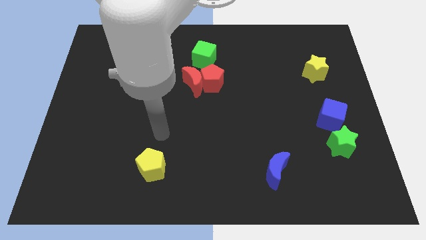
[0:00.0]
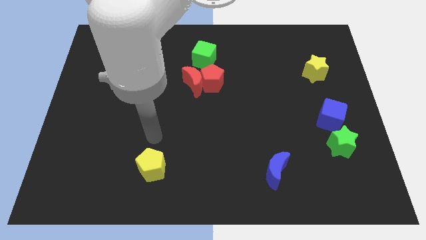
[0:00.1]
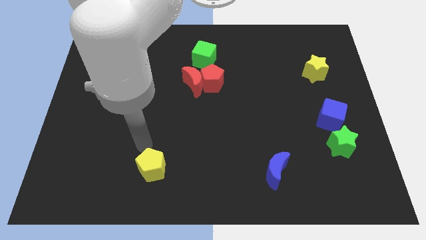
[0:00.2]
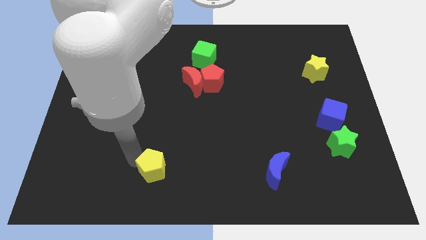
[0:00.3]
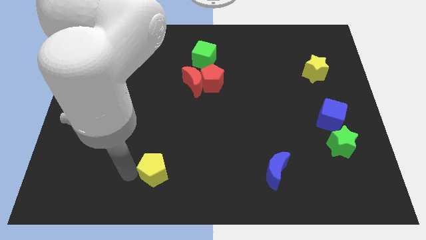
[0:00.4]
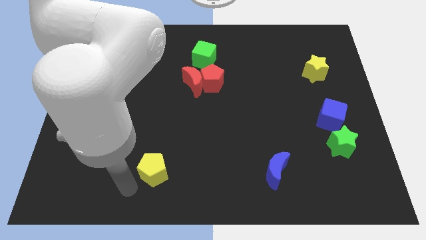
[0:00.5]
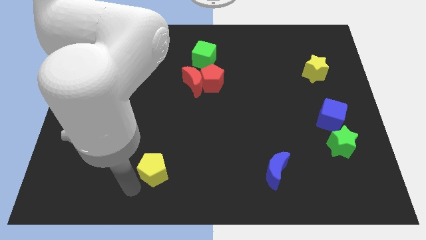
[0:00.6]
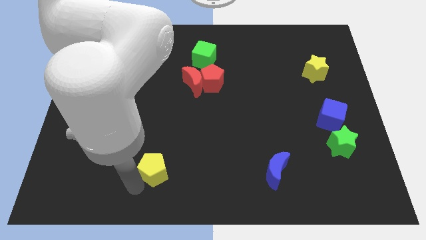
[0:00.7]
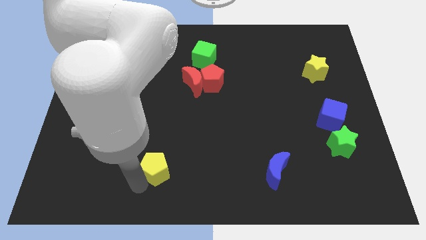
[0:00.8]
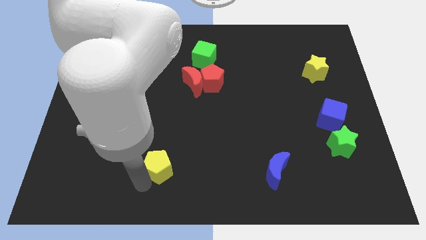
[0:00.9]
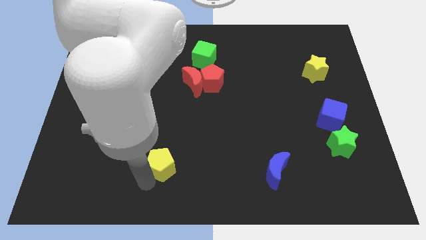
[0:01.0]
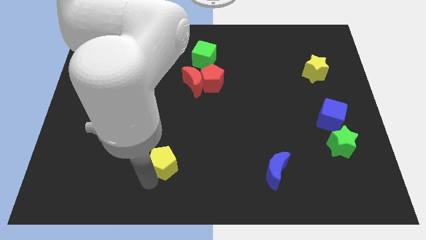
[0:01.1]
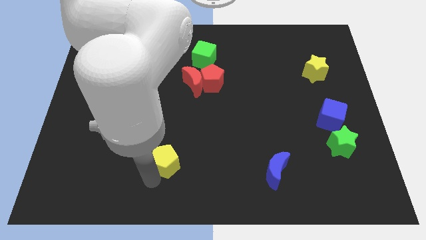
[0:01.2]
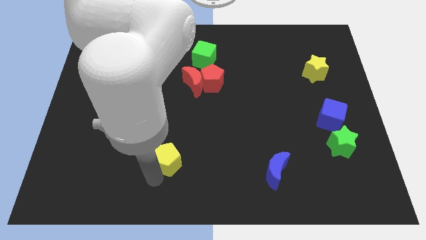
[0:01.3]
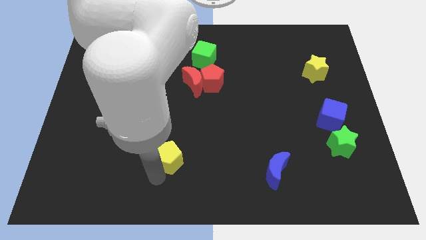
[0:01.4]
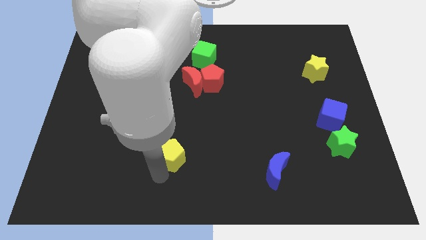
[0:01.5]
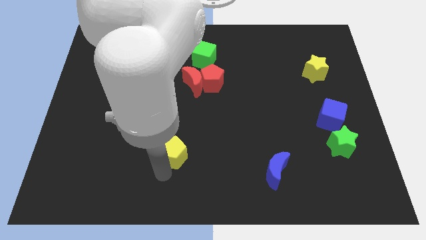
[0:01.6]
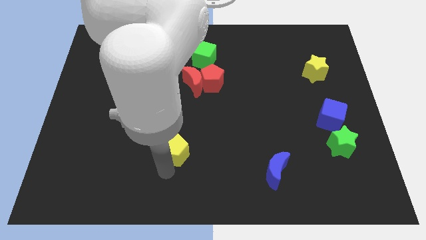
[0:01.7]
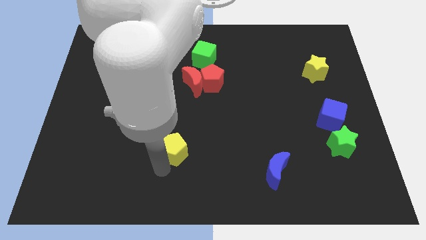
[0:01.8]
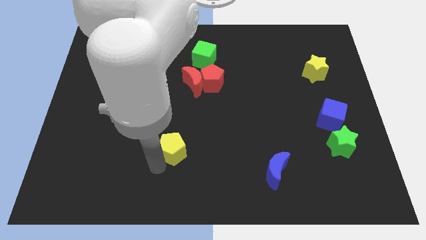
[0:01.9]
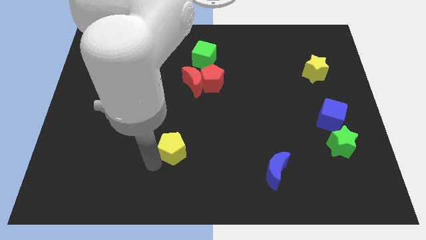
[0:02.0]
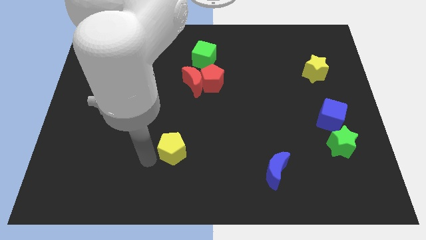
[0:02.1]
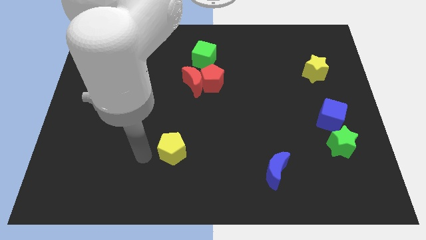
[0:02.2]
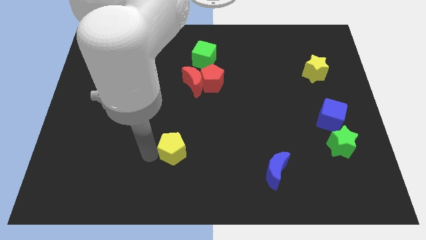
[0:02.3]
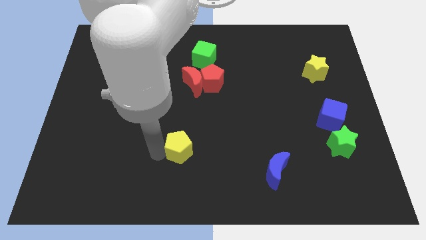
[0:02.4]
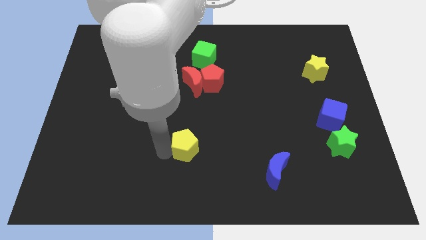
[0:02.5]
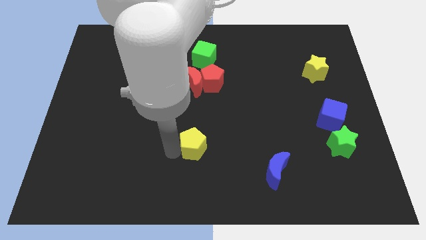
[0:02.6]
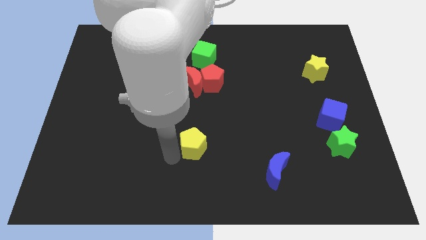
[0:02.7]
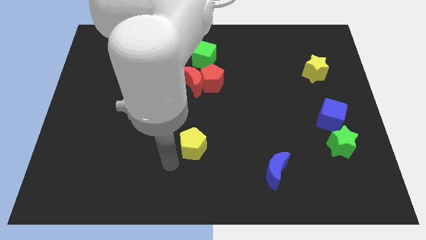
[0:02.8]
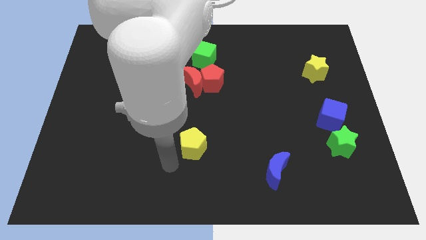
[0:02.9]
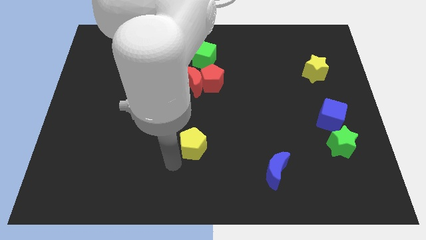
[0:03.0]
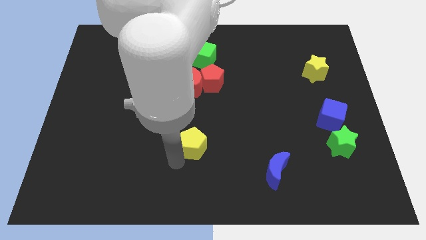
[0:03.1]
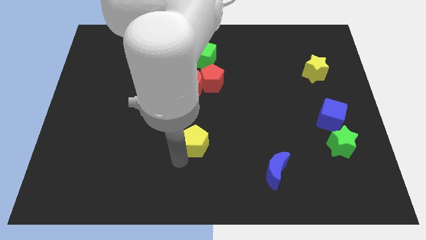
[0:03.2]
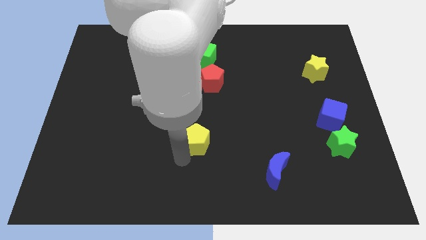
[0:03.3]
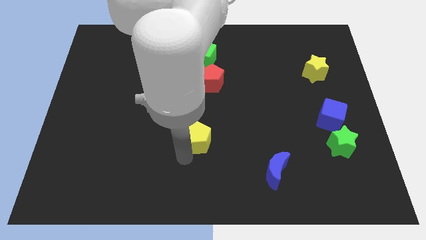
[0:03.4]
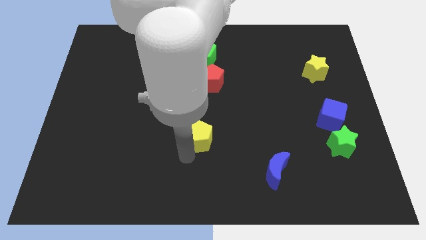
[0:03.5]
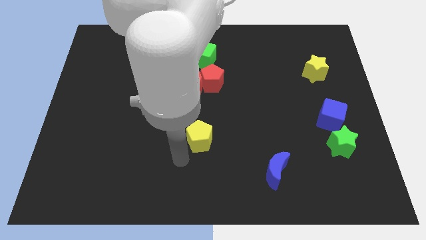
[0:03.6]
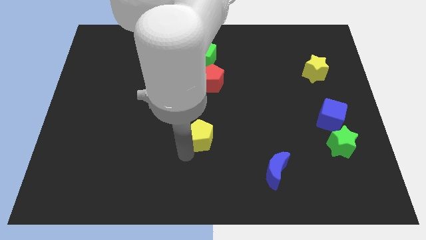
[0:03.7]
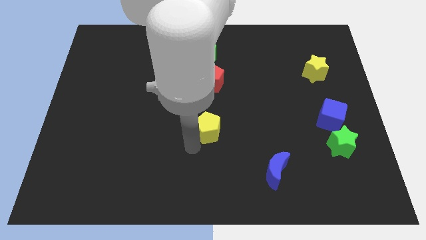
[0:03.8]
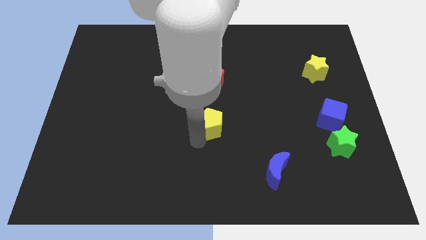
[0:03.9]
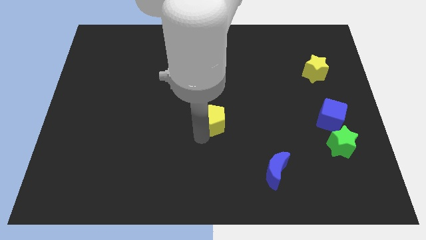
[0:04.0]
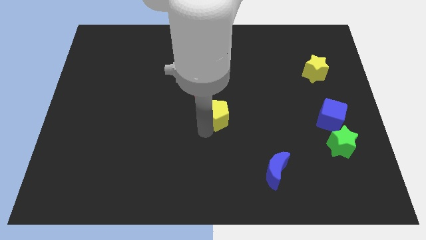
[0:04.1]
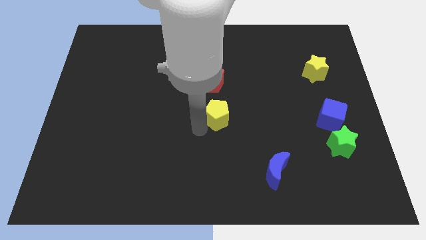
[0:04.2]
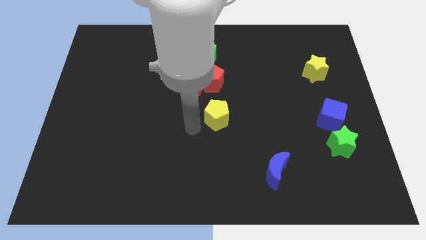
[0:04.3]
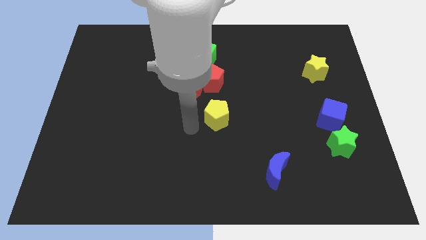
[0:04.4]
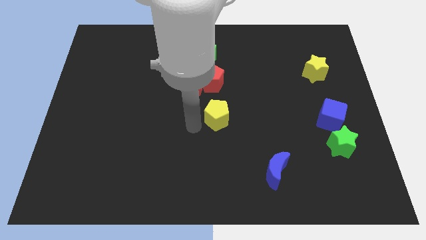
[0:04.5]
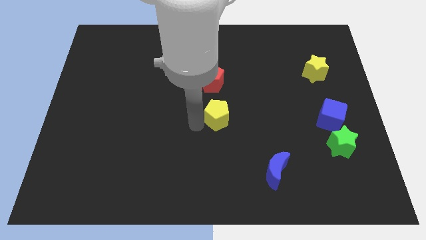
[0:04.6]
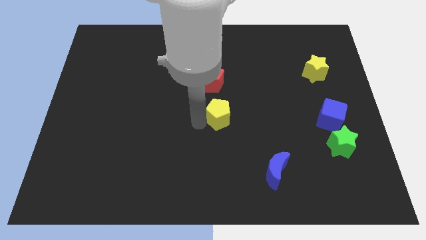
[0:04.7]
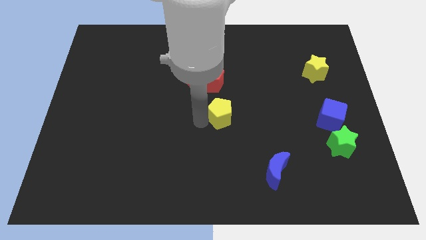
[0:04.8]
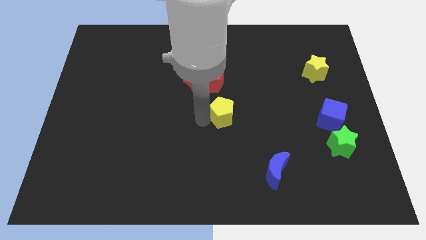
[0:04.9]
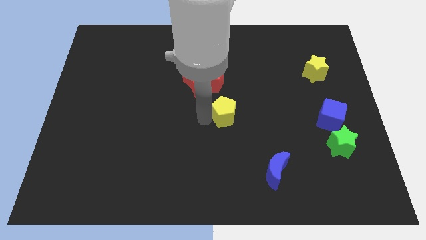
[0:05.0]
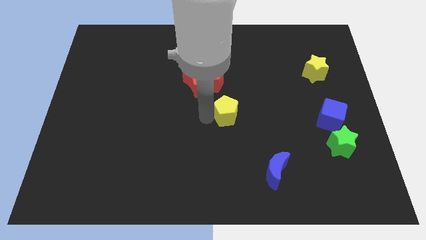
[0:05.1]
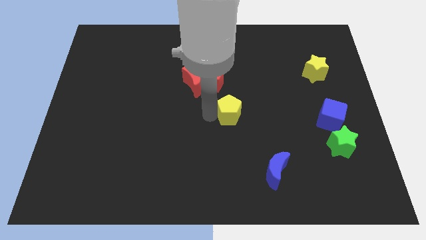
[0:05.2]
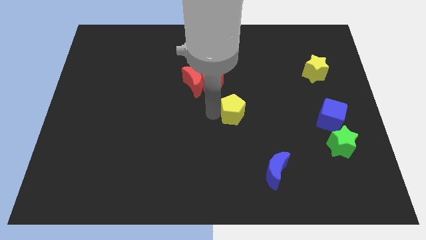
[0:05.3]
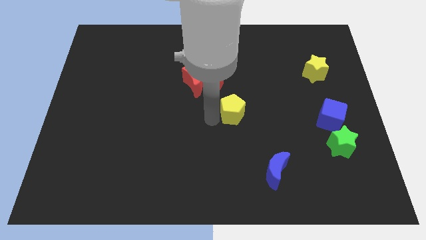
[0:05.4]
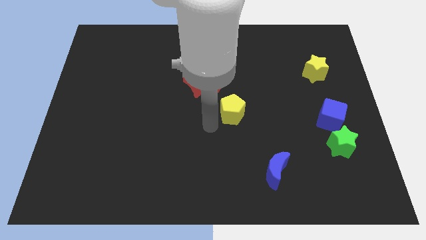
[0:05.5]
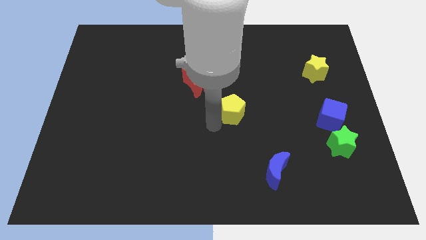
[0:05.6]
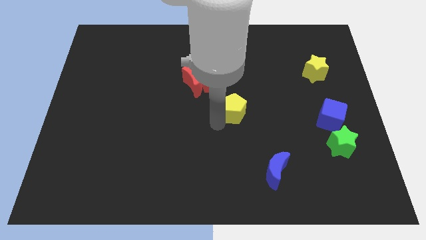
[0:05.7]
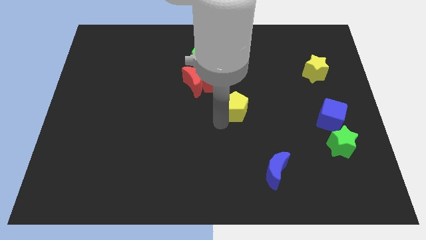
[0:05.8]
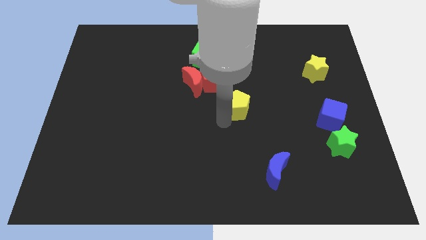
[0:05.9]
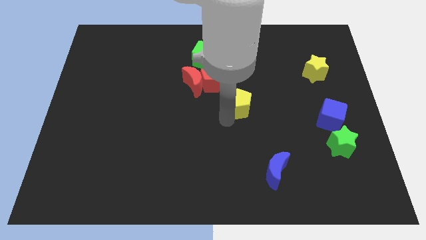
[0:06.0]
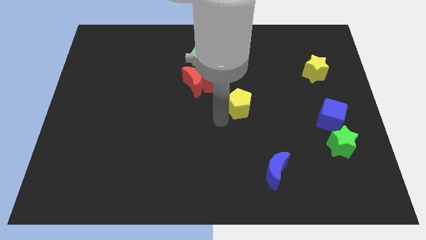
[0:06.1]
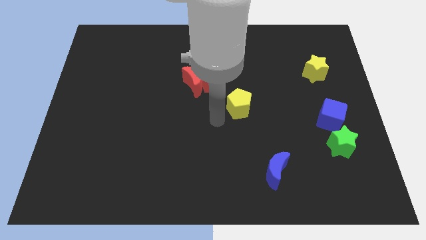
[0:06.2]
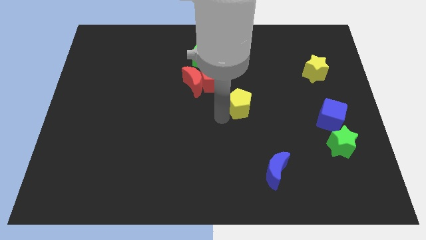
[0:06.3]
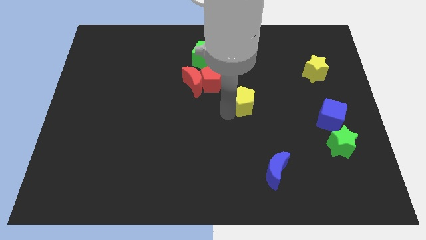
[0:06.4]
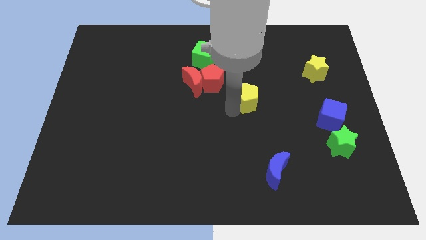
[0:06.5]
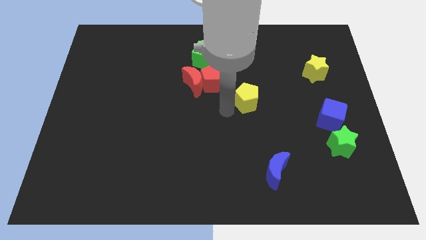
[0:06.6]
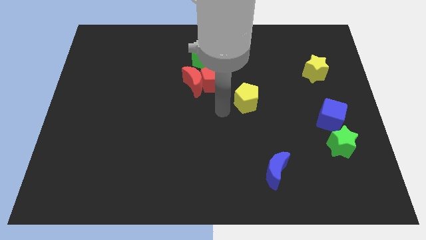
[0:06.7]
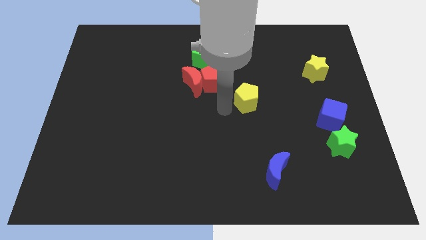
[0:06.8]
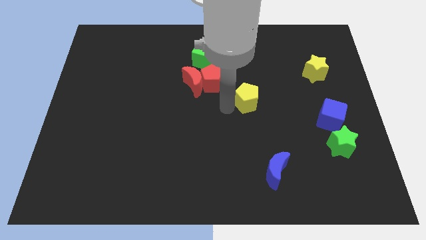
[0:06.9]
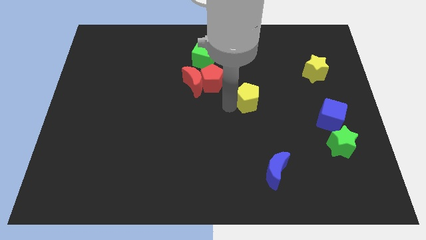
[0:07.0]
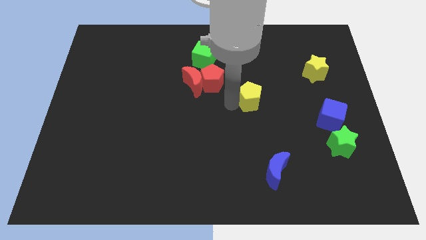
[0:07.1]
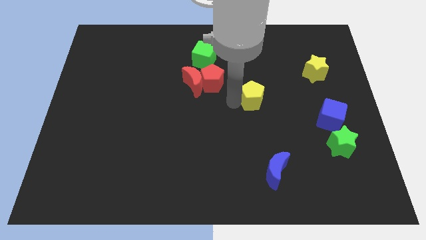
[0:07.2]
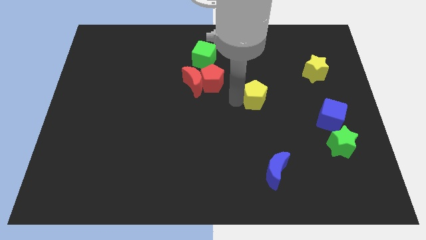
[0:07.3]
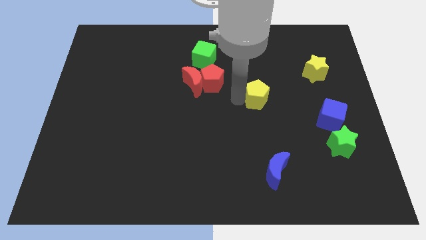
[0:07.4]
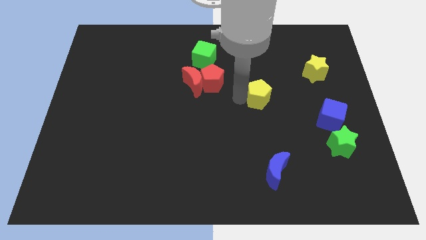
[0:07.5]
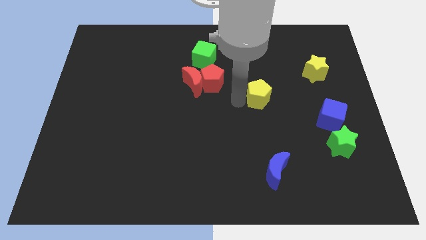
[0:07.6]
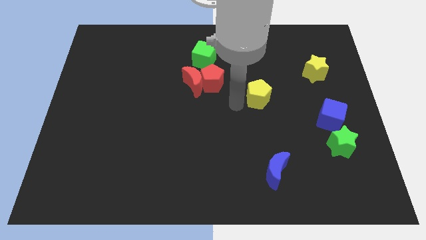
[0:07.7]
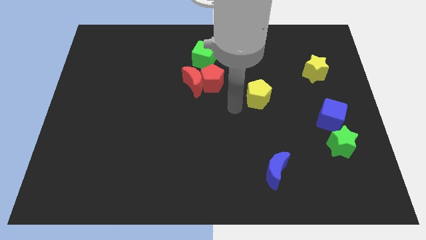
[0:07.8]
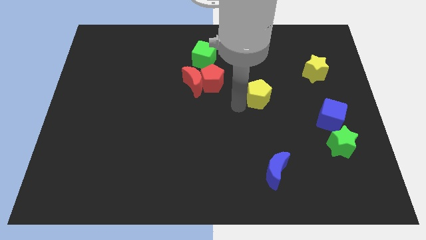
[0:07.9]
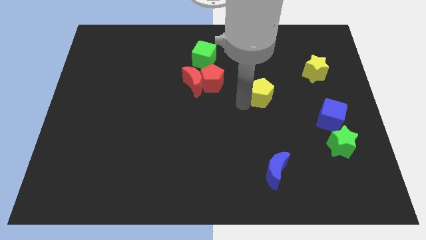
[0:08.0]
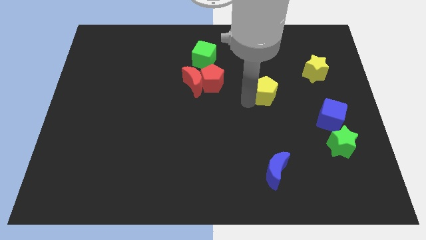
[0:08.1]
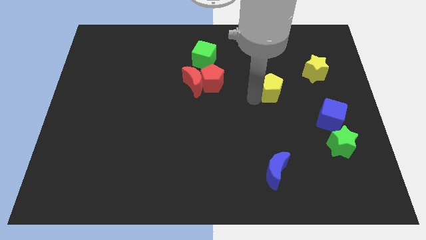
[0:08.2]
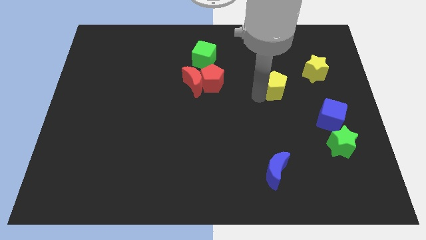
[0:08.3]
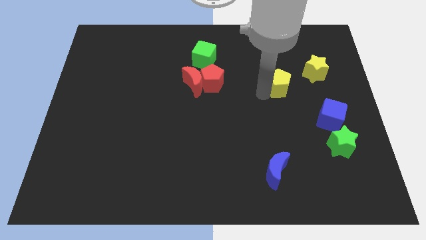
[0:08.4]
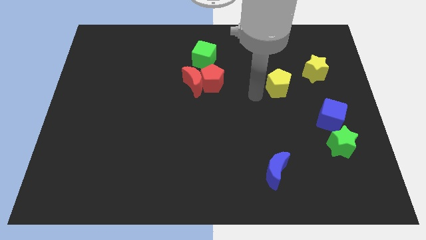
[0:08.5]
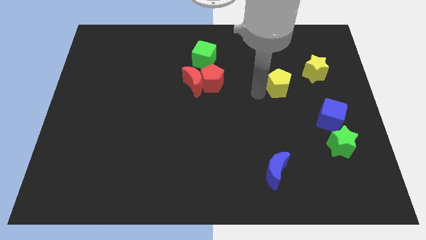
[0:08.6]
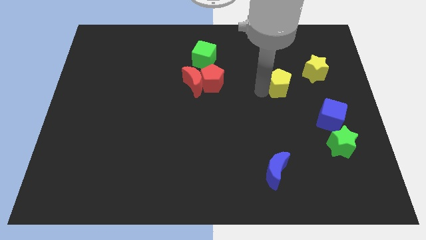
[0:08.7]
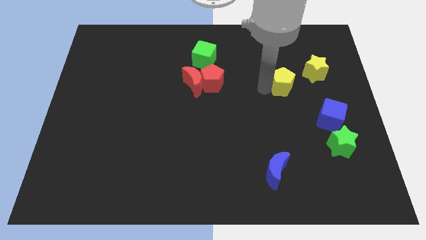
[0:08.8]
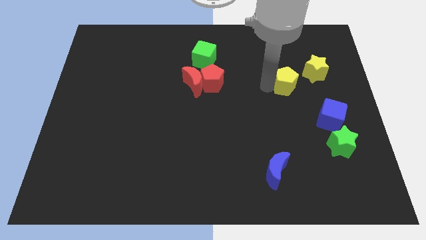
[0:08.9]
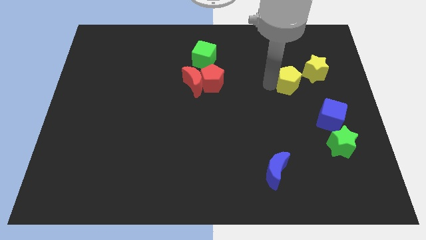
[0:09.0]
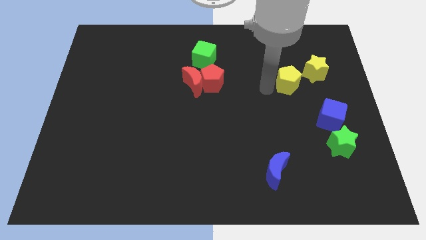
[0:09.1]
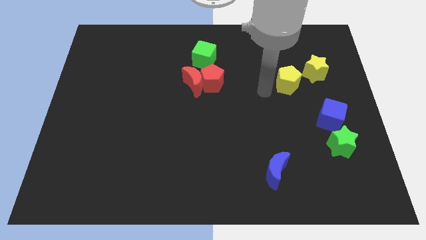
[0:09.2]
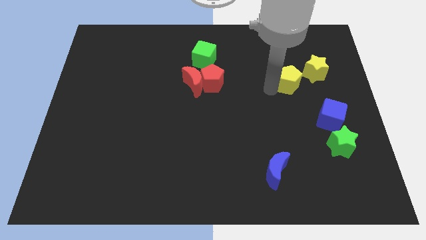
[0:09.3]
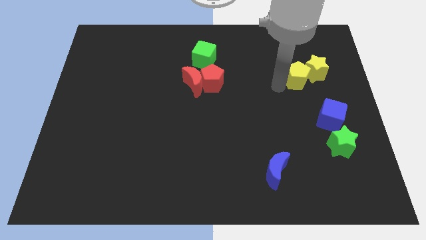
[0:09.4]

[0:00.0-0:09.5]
put the yellow pentagon to the yellow star
